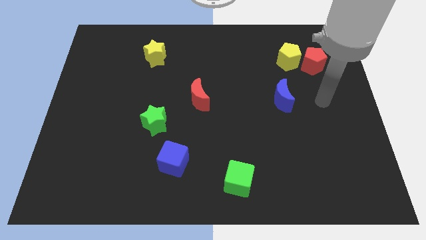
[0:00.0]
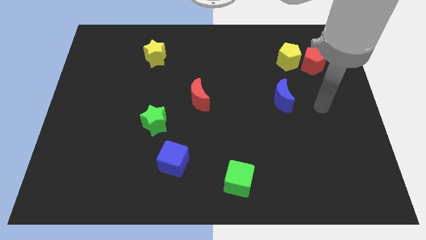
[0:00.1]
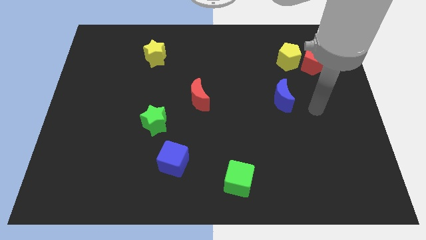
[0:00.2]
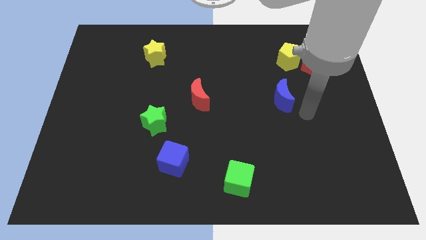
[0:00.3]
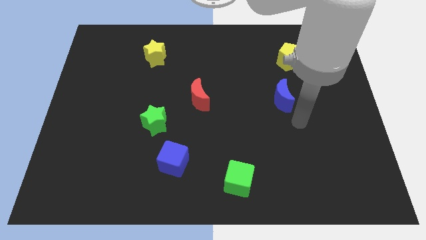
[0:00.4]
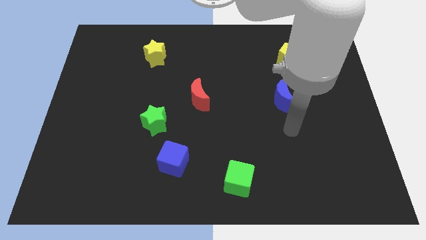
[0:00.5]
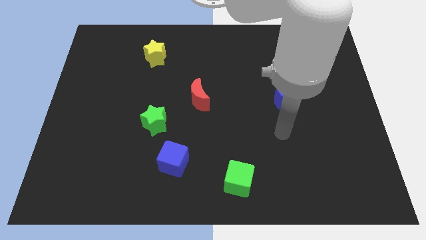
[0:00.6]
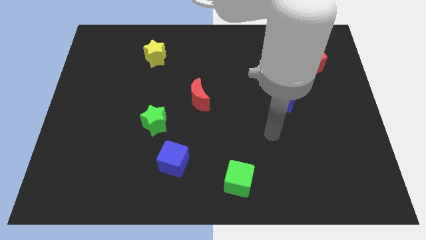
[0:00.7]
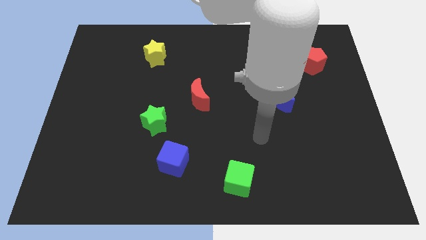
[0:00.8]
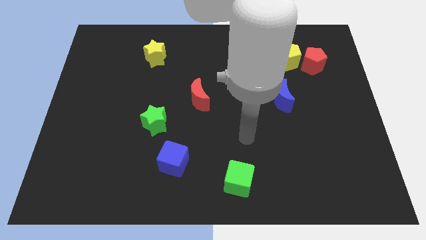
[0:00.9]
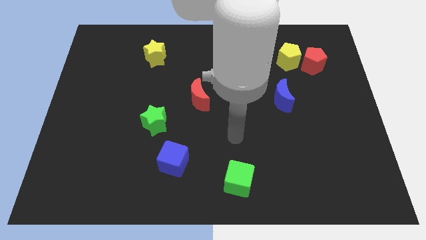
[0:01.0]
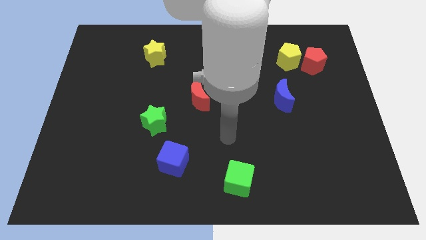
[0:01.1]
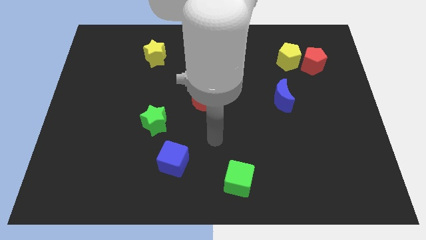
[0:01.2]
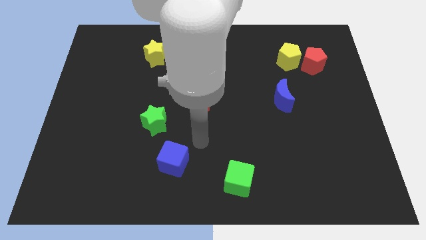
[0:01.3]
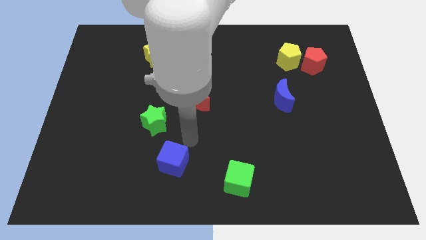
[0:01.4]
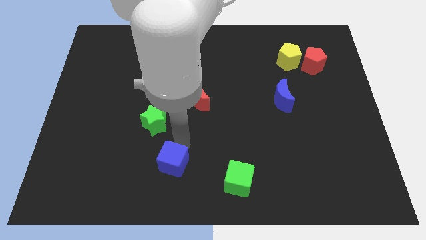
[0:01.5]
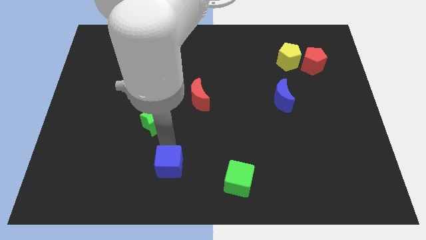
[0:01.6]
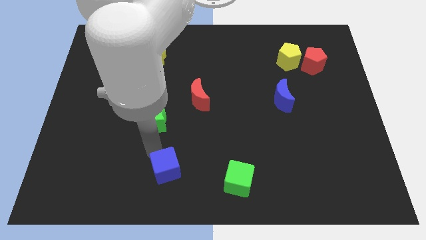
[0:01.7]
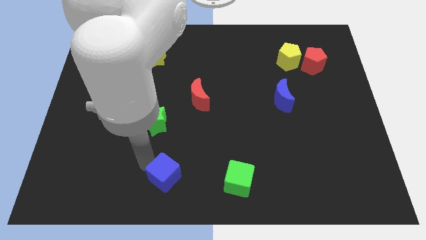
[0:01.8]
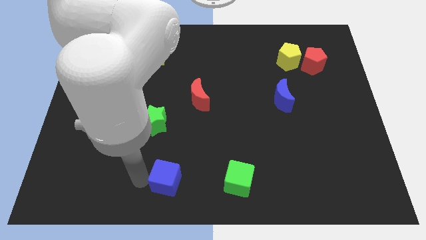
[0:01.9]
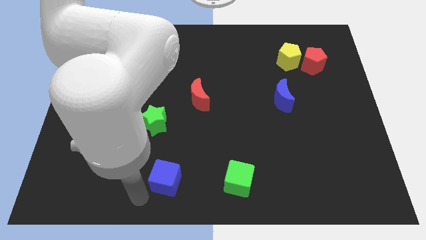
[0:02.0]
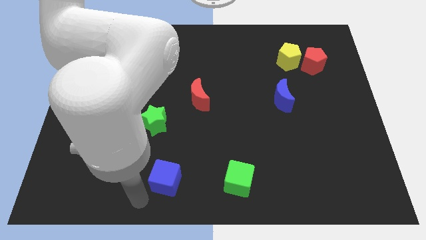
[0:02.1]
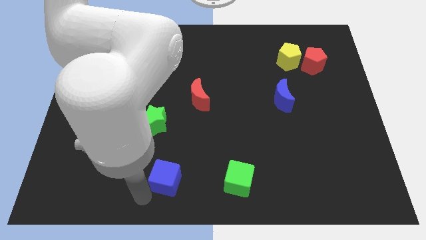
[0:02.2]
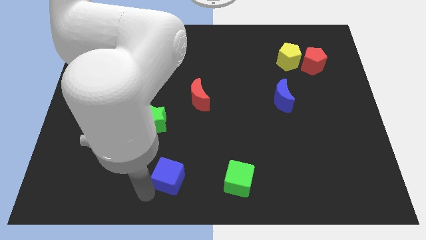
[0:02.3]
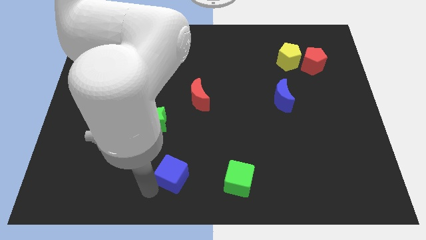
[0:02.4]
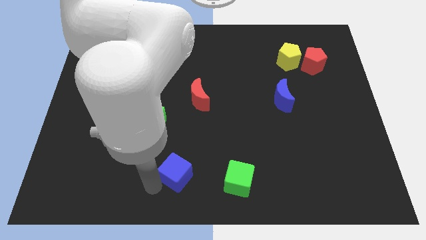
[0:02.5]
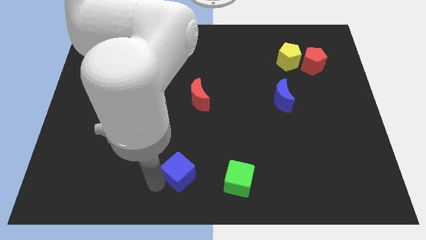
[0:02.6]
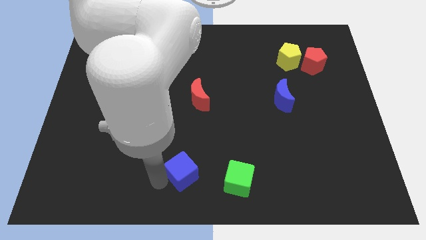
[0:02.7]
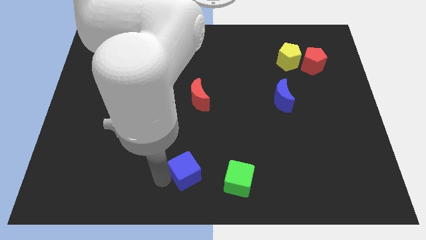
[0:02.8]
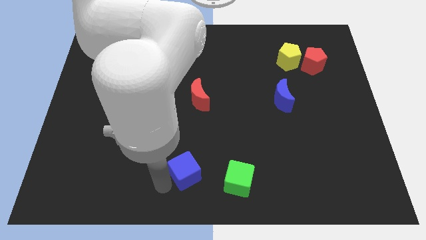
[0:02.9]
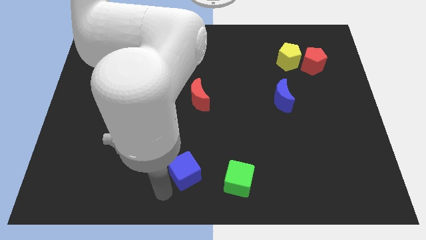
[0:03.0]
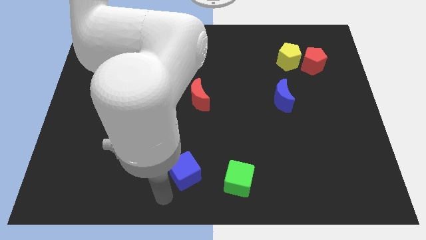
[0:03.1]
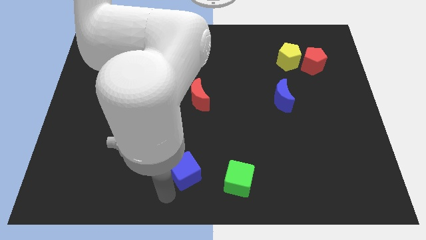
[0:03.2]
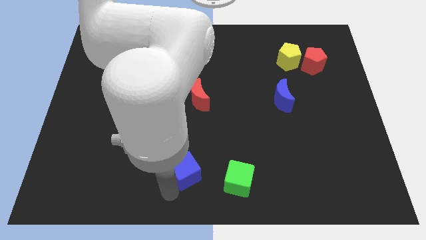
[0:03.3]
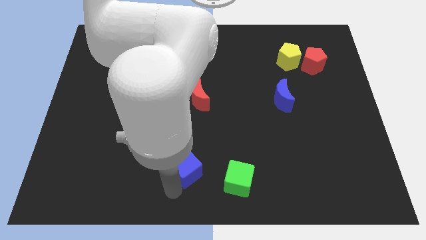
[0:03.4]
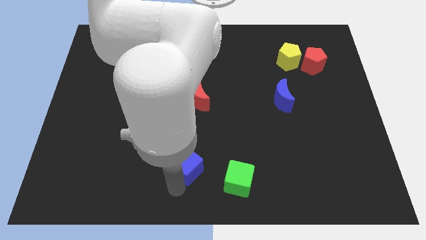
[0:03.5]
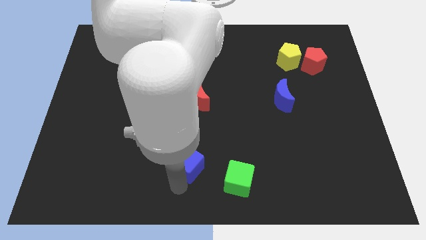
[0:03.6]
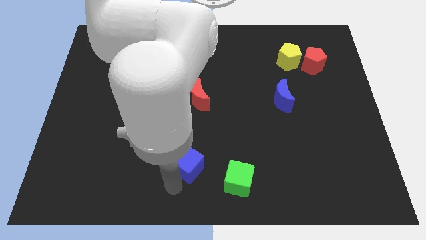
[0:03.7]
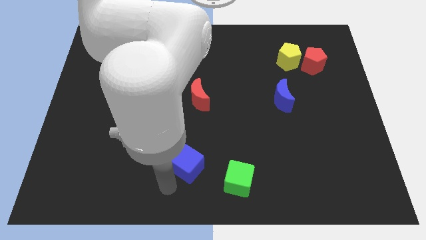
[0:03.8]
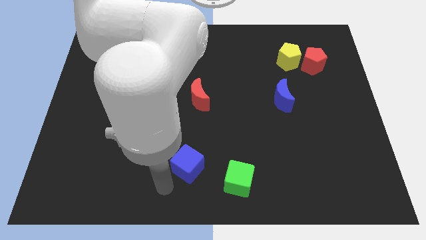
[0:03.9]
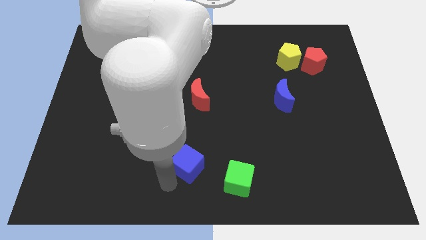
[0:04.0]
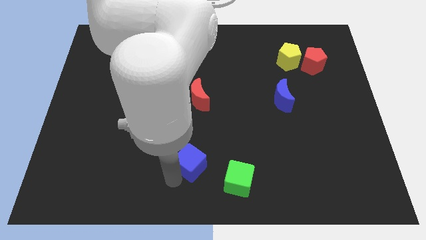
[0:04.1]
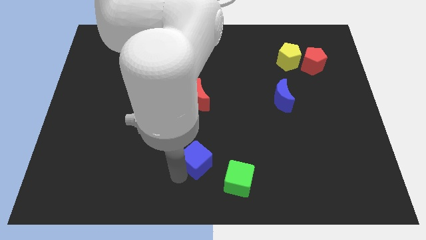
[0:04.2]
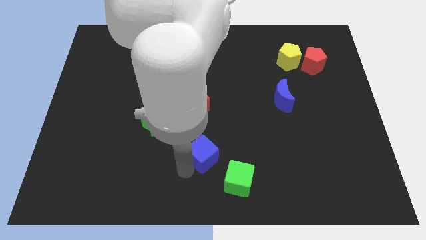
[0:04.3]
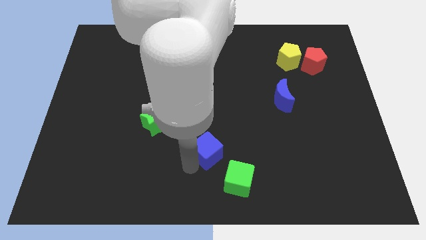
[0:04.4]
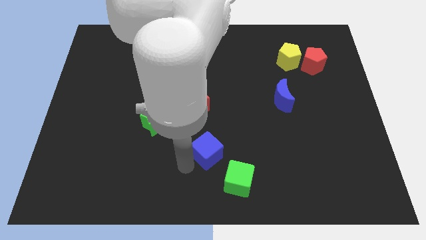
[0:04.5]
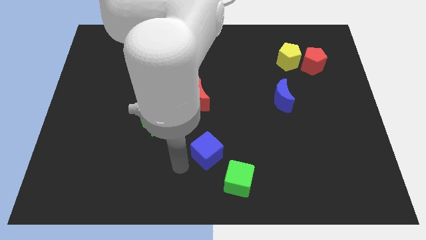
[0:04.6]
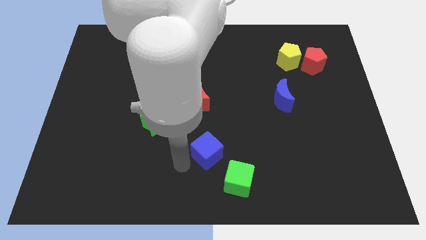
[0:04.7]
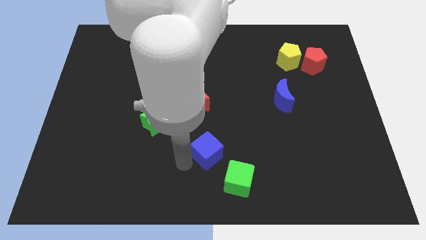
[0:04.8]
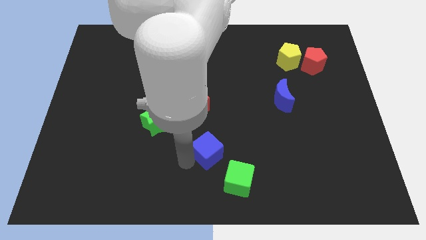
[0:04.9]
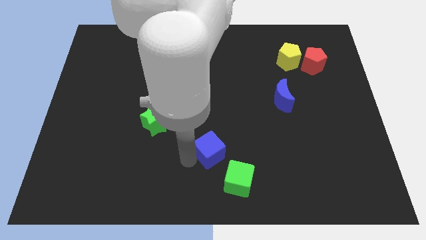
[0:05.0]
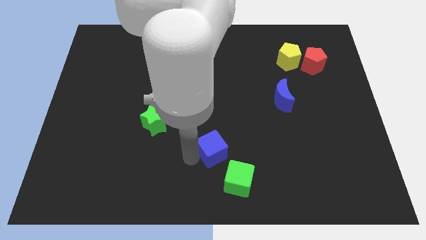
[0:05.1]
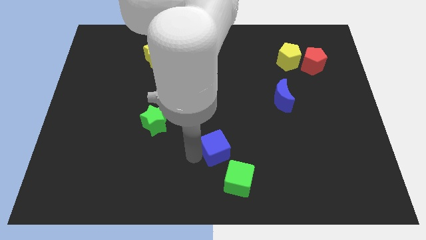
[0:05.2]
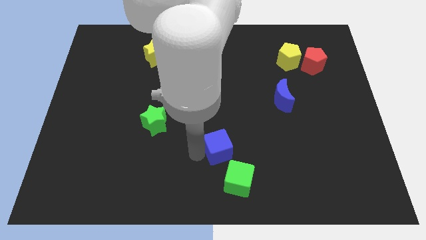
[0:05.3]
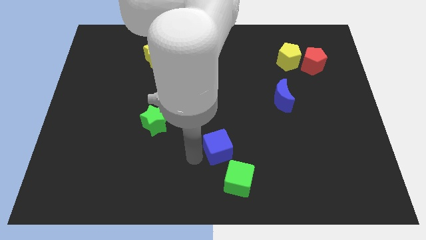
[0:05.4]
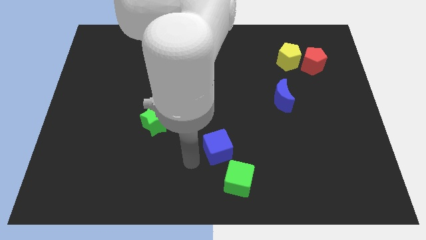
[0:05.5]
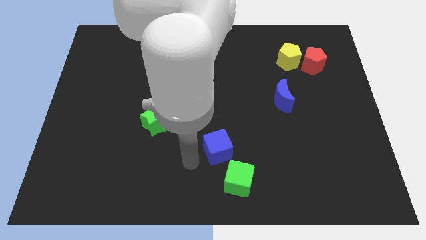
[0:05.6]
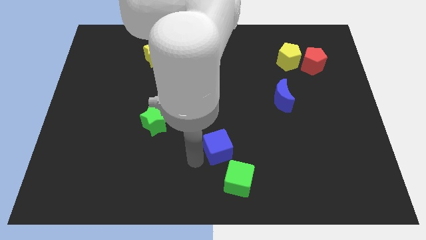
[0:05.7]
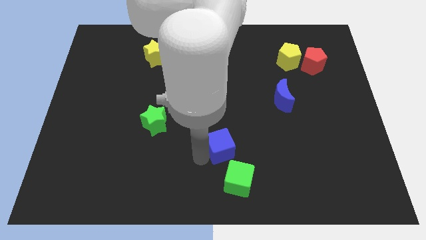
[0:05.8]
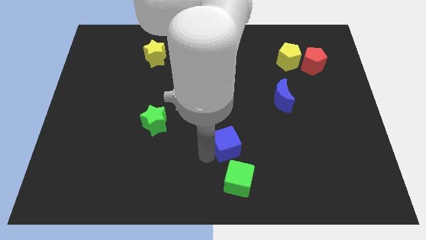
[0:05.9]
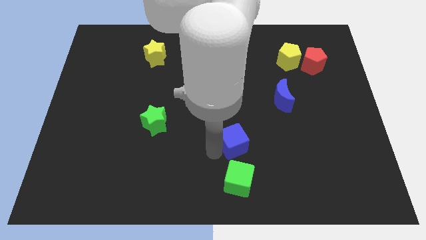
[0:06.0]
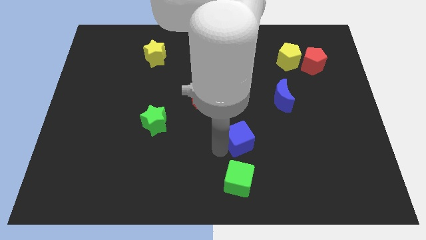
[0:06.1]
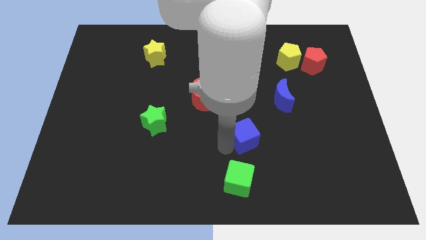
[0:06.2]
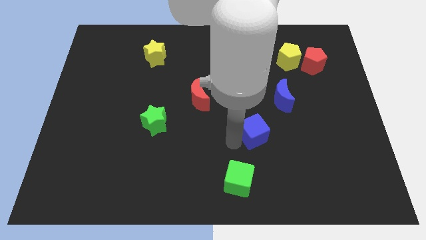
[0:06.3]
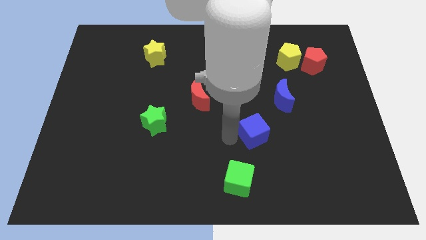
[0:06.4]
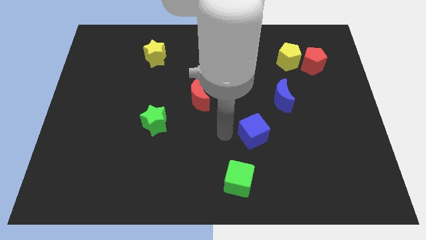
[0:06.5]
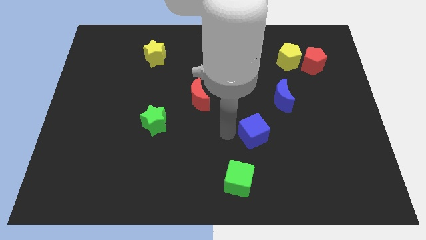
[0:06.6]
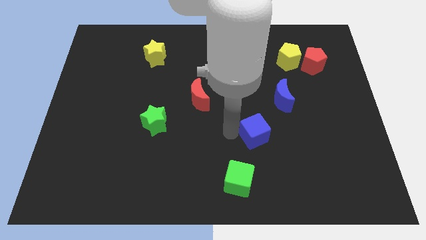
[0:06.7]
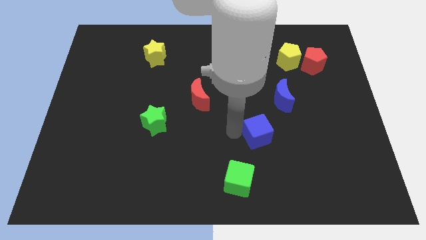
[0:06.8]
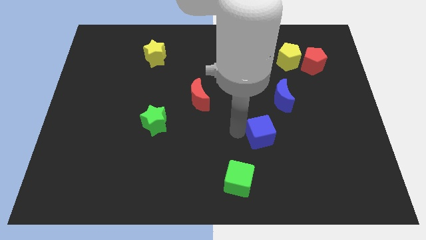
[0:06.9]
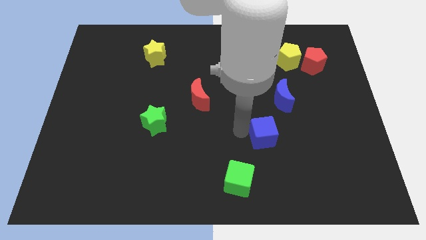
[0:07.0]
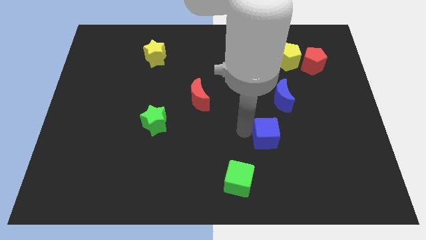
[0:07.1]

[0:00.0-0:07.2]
move the blue cube to the bottom of the blue moon

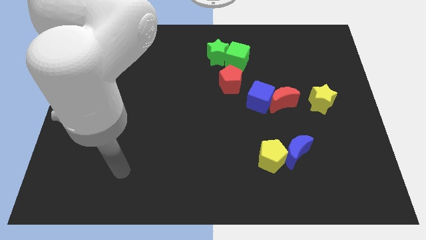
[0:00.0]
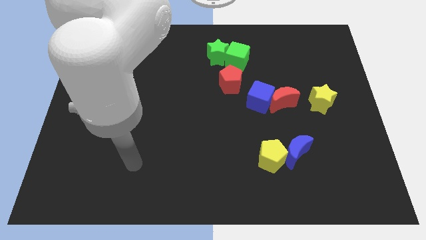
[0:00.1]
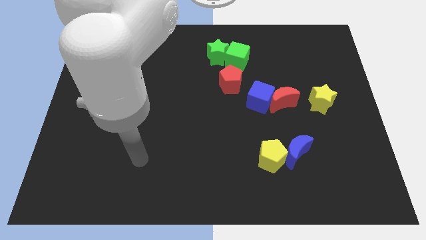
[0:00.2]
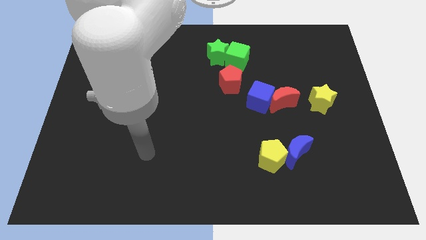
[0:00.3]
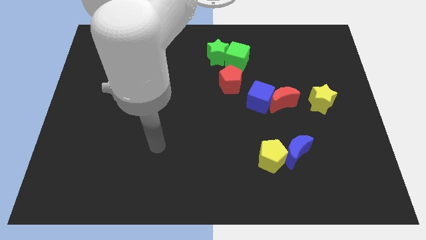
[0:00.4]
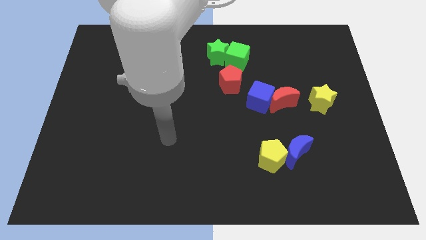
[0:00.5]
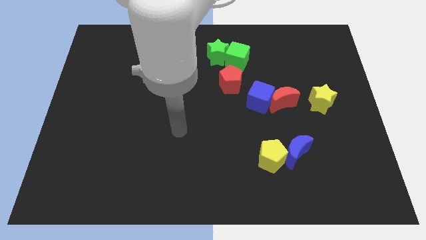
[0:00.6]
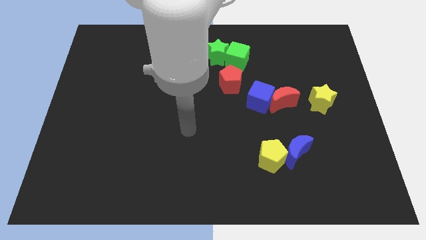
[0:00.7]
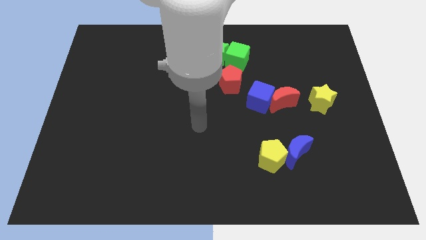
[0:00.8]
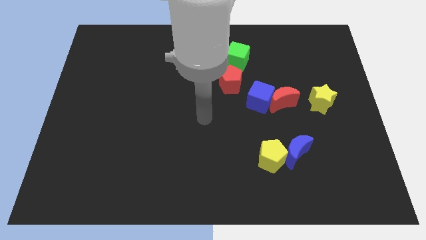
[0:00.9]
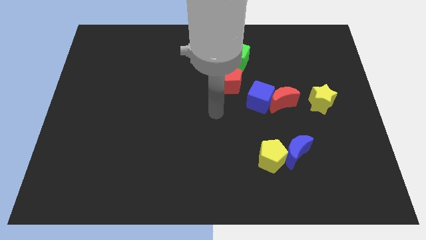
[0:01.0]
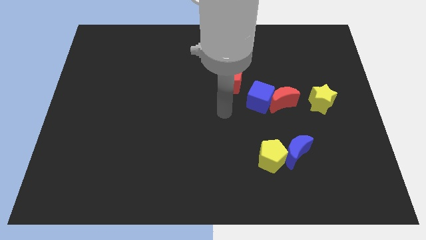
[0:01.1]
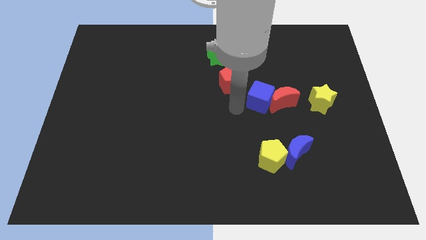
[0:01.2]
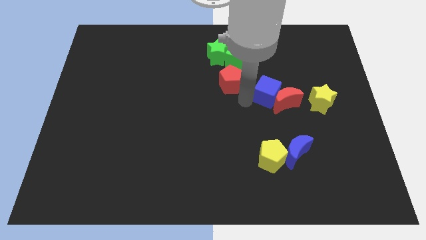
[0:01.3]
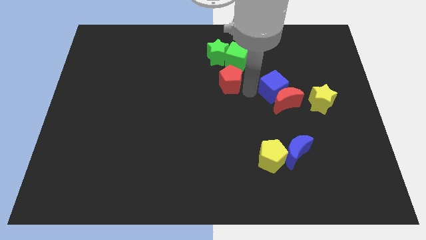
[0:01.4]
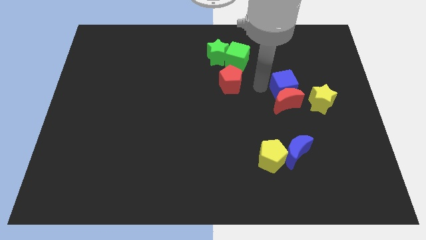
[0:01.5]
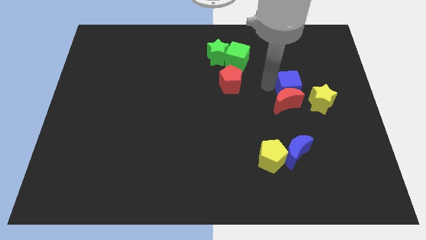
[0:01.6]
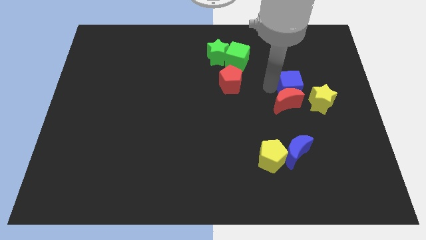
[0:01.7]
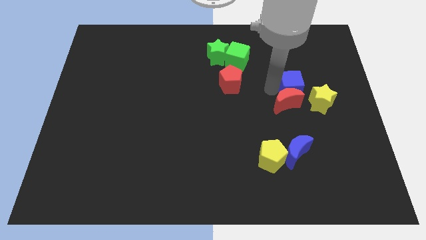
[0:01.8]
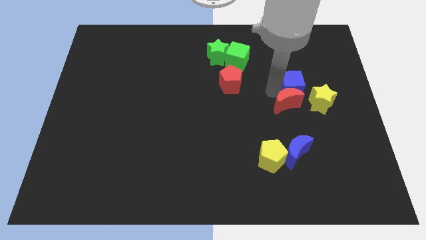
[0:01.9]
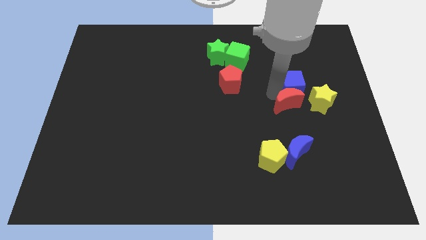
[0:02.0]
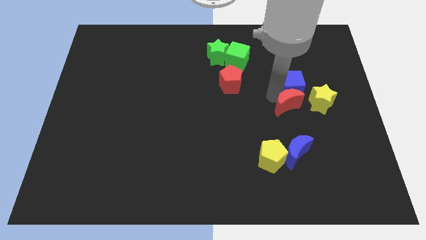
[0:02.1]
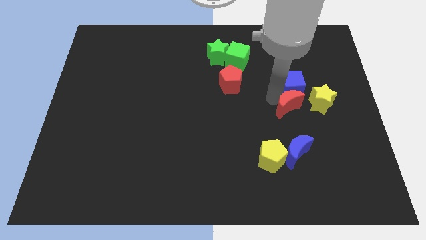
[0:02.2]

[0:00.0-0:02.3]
put the red moon to the bottom left side of the yellow star
